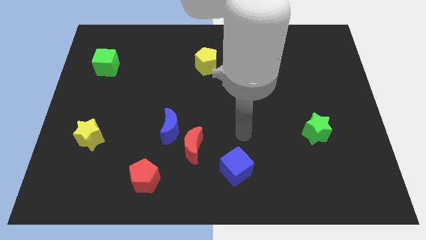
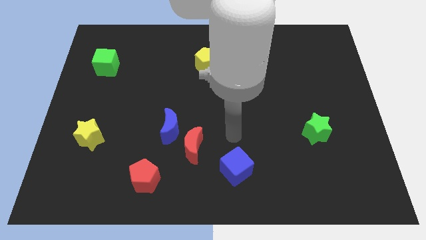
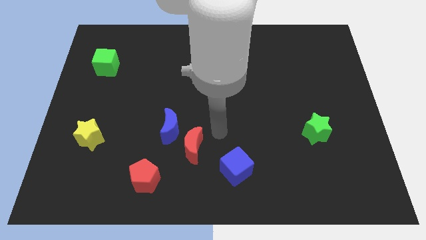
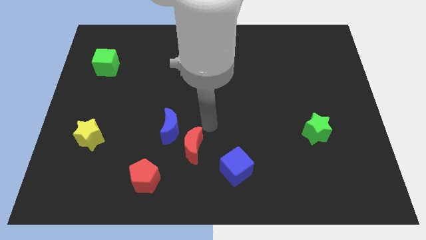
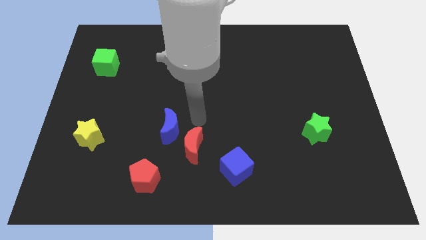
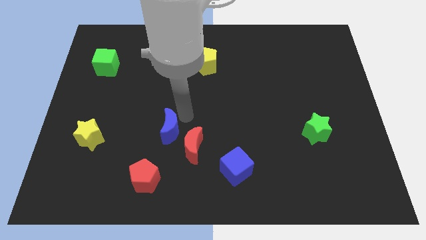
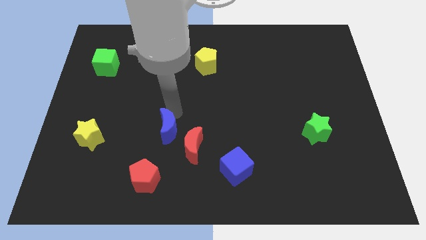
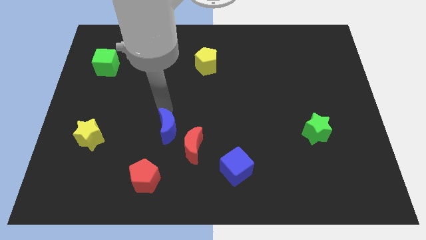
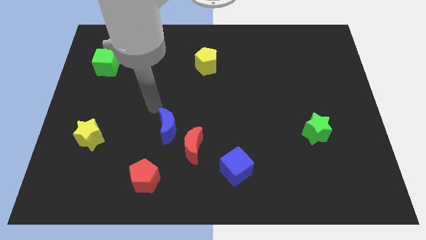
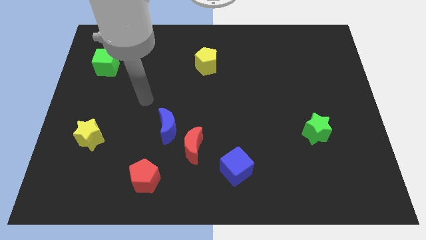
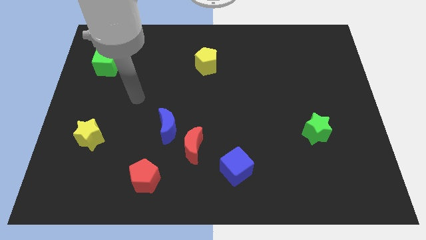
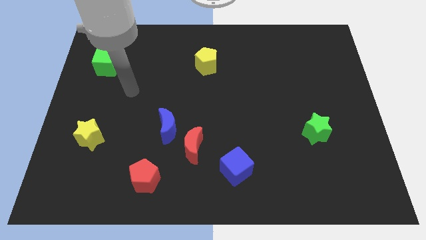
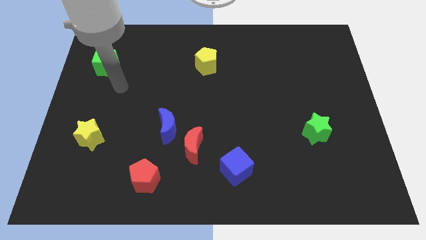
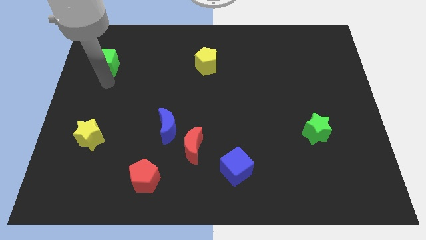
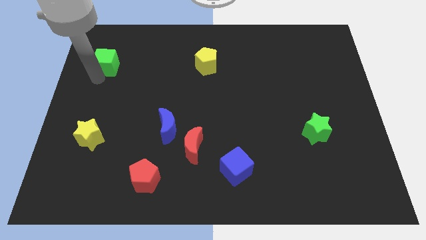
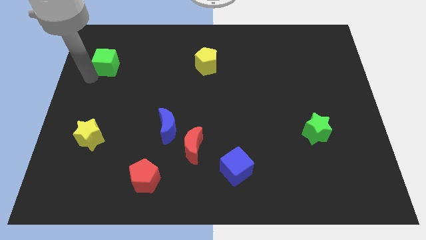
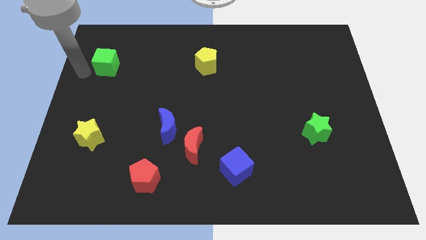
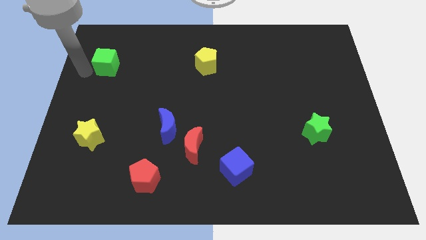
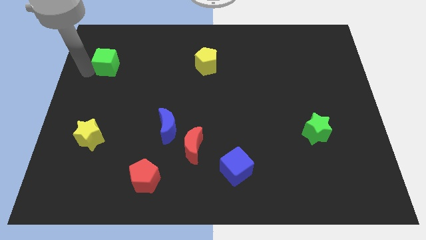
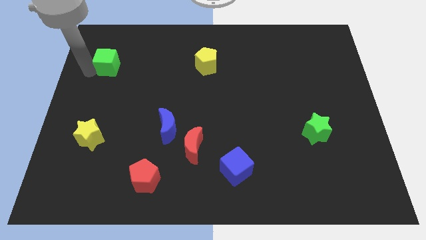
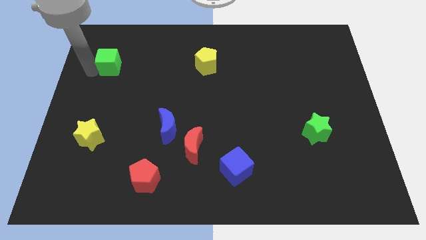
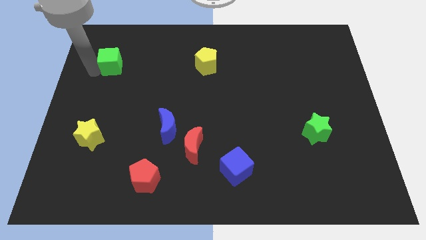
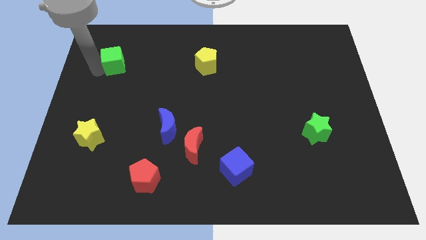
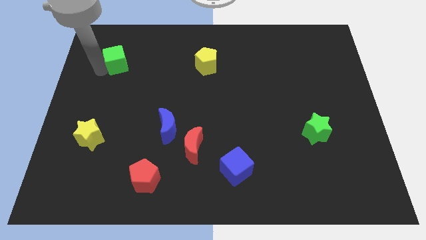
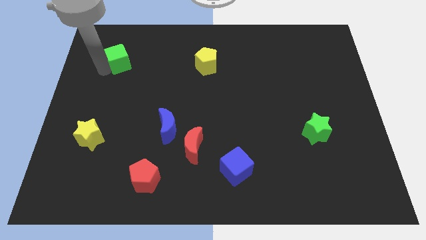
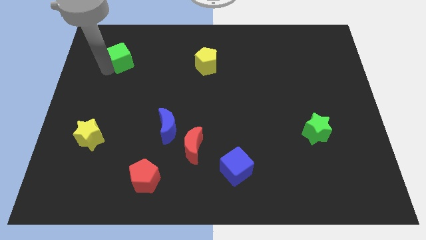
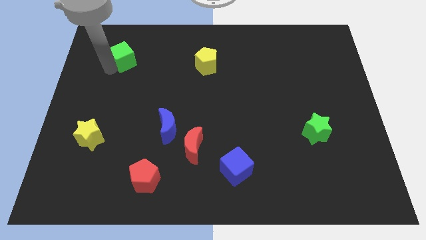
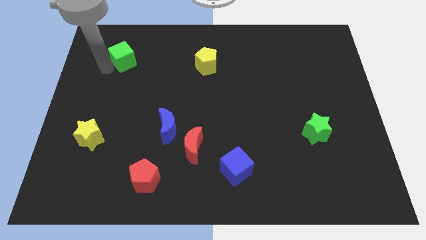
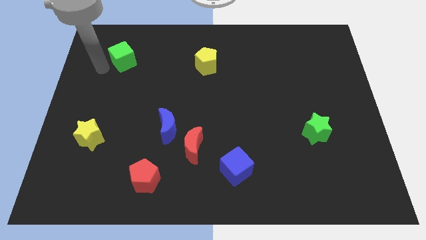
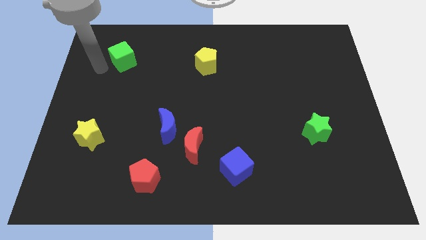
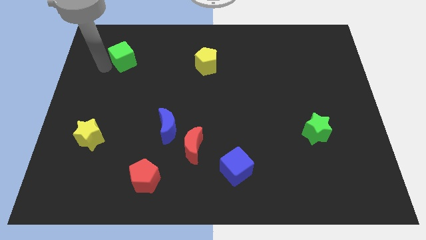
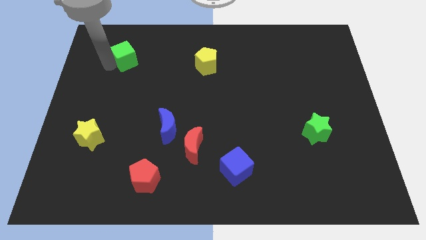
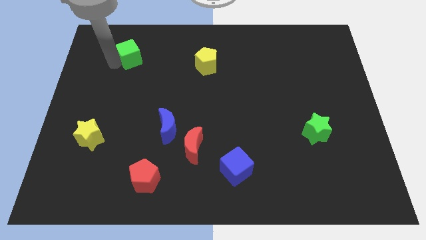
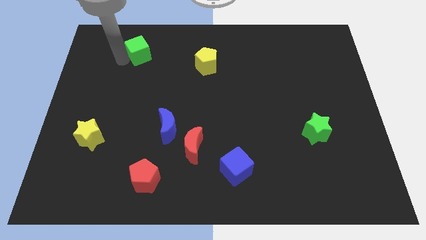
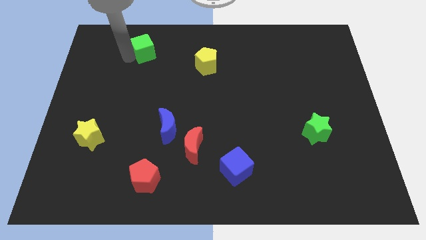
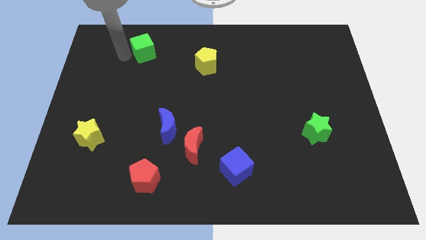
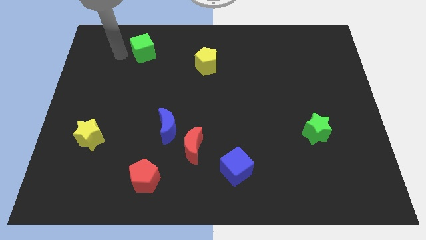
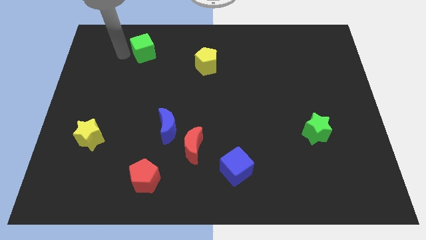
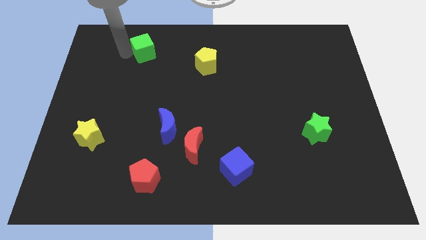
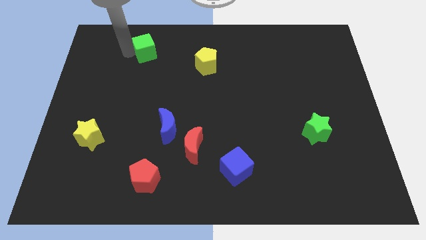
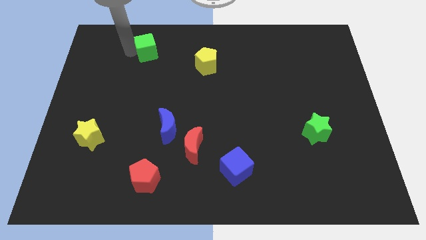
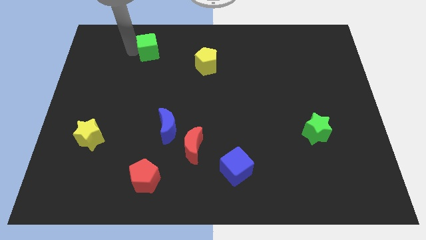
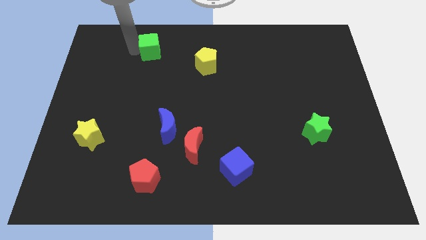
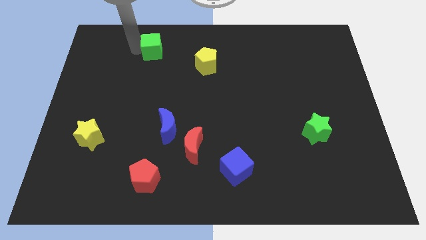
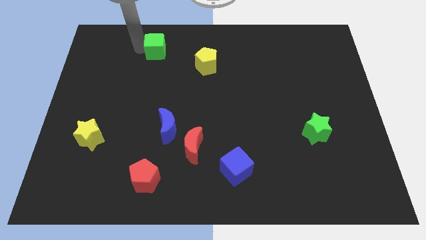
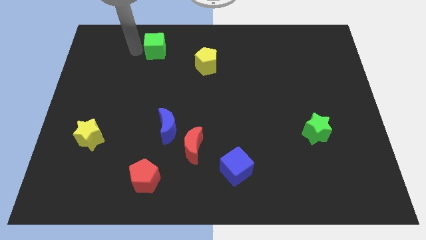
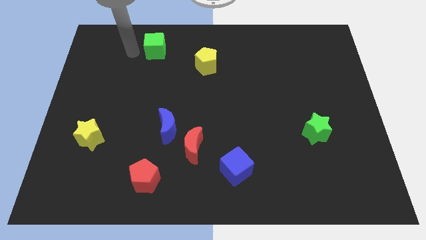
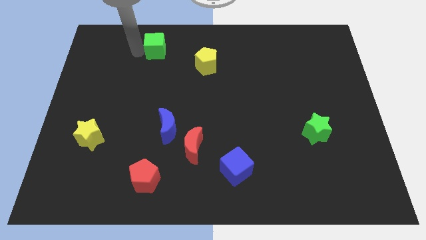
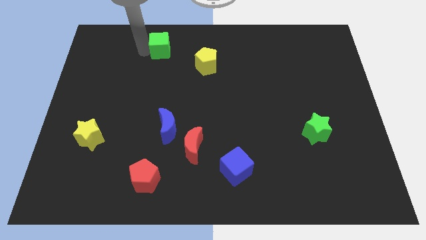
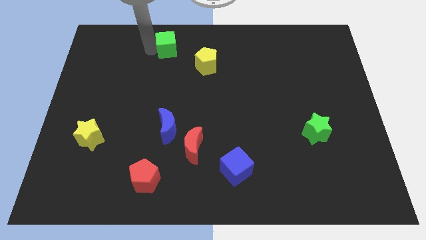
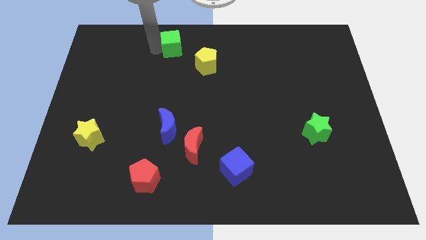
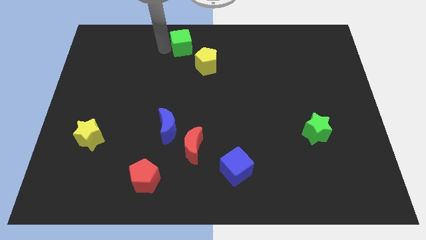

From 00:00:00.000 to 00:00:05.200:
move the green cube to the top side
